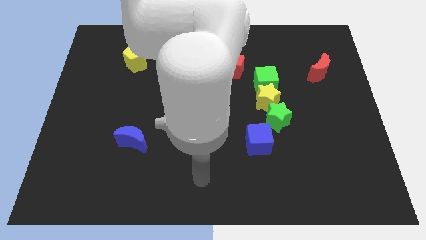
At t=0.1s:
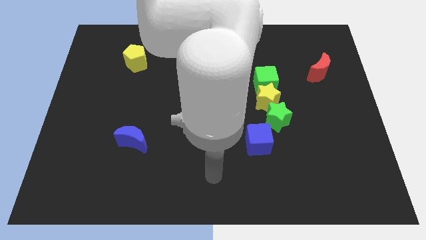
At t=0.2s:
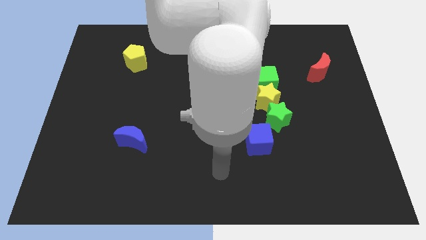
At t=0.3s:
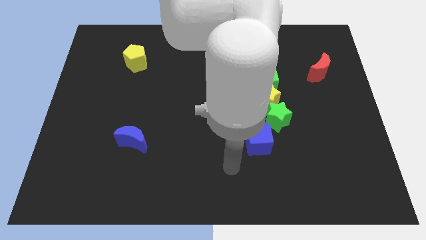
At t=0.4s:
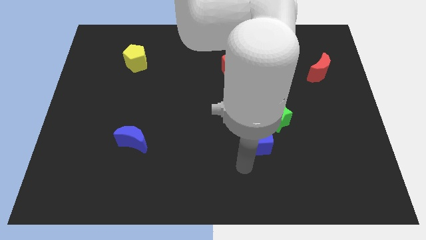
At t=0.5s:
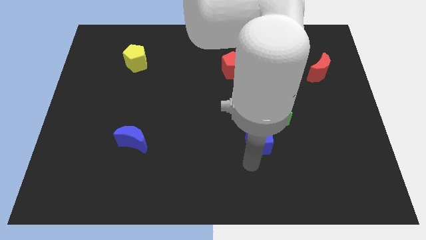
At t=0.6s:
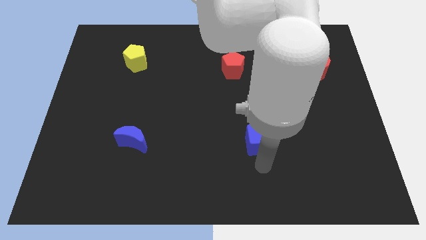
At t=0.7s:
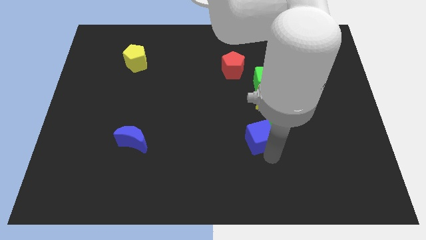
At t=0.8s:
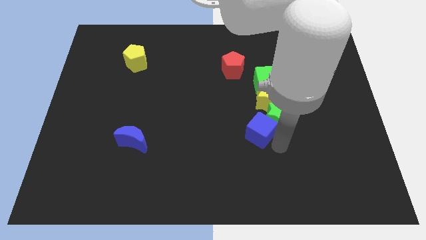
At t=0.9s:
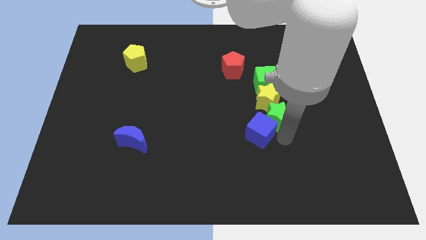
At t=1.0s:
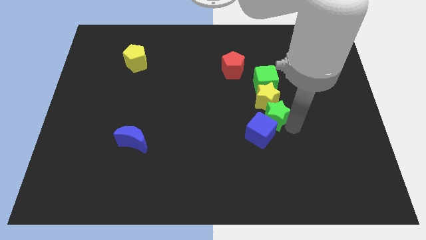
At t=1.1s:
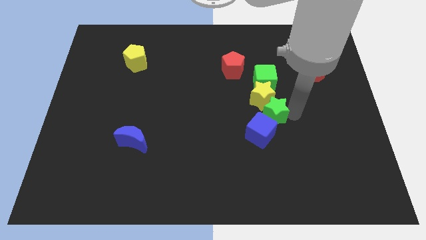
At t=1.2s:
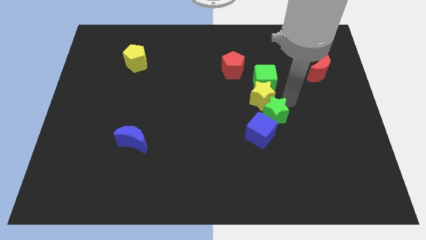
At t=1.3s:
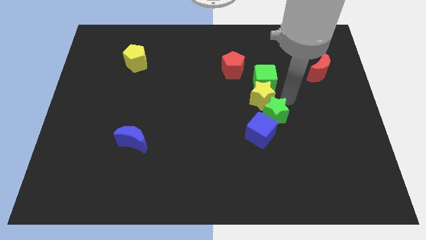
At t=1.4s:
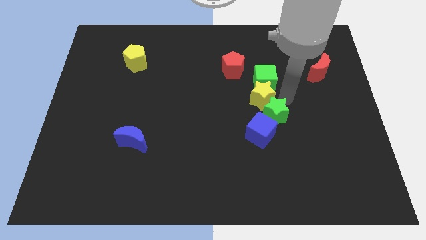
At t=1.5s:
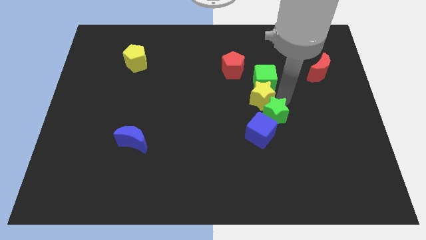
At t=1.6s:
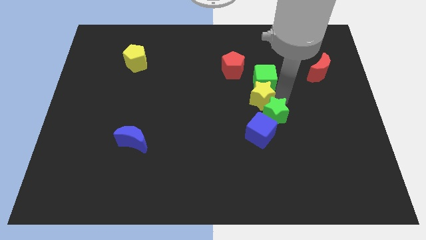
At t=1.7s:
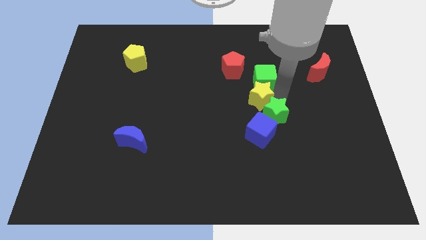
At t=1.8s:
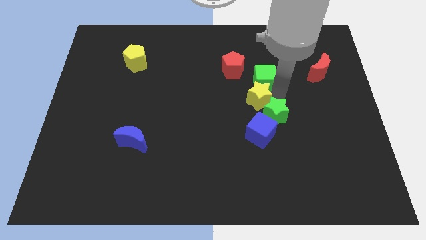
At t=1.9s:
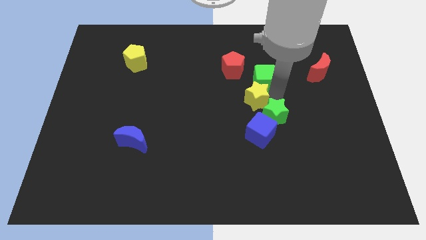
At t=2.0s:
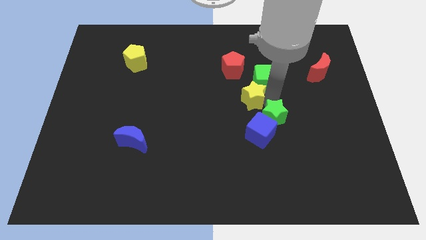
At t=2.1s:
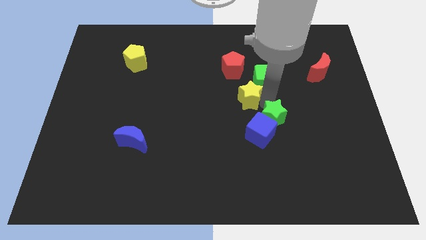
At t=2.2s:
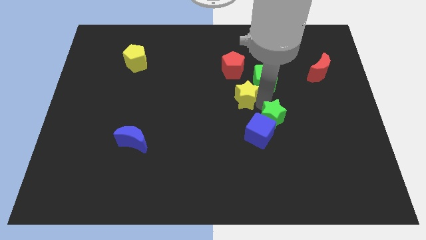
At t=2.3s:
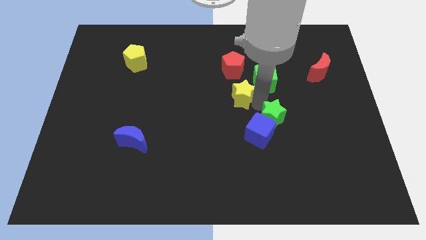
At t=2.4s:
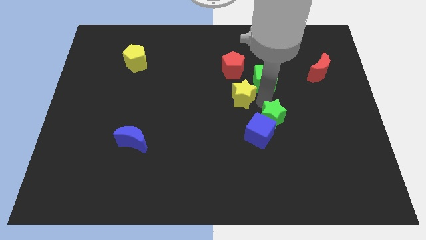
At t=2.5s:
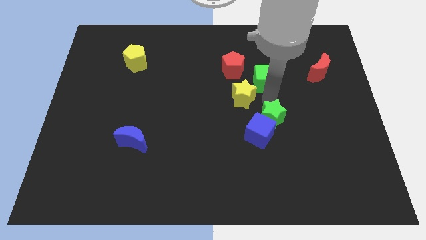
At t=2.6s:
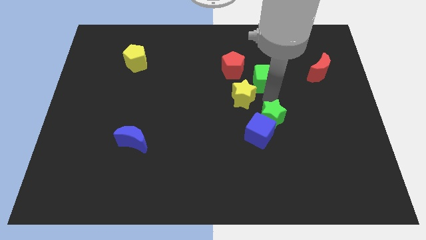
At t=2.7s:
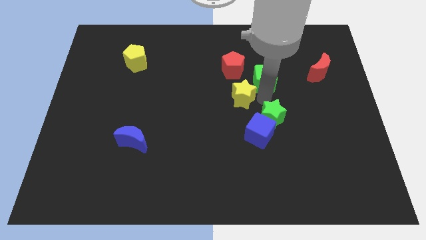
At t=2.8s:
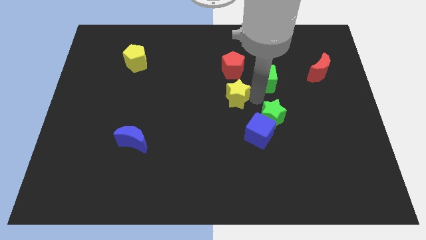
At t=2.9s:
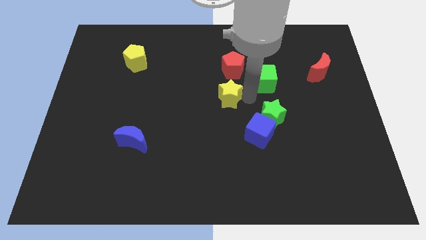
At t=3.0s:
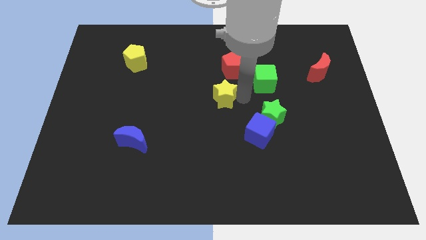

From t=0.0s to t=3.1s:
move the yellow star away from the green cube and green star

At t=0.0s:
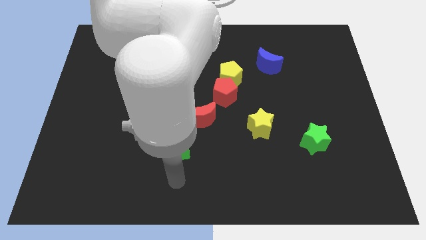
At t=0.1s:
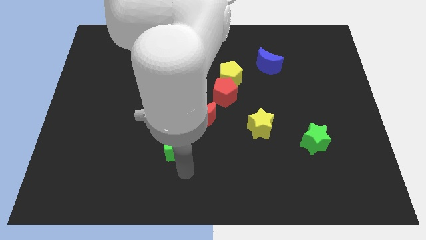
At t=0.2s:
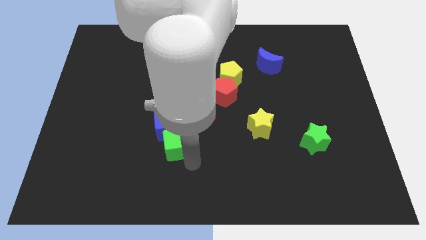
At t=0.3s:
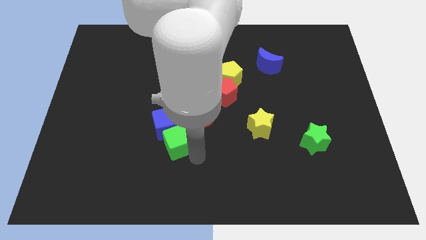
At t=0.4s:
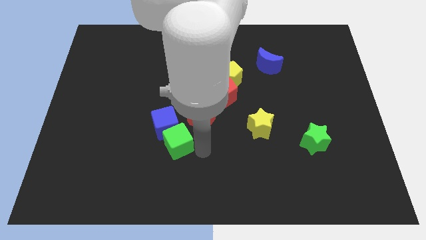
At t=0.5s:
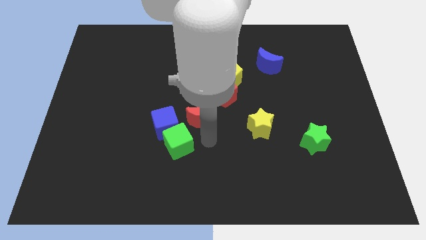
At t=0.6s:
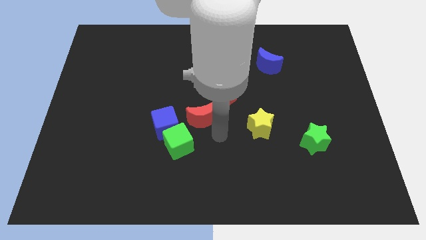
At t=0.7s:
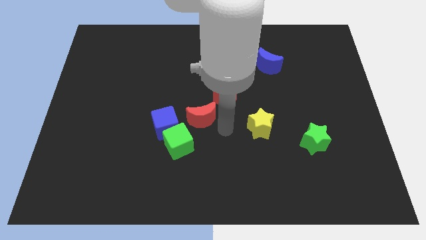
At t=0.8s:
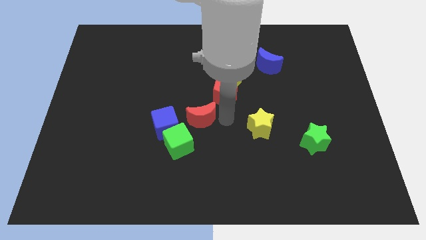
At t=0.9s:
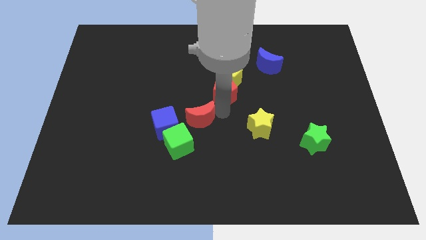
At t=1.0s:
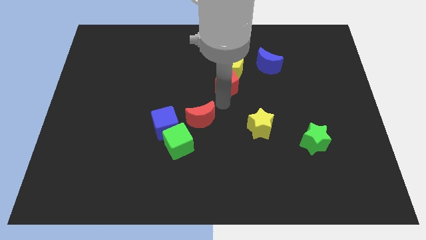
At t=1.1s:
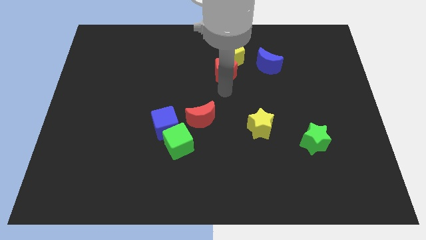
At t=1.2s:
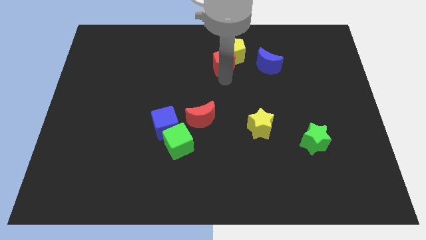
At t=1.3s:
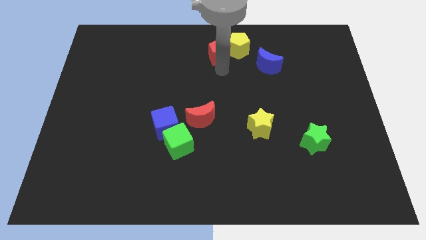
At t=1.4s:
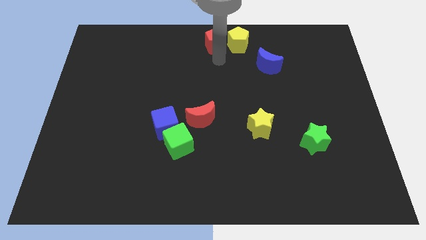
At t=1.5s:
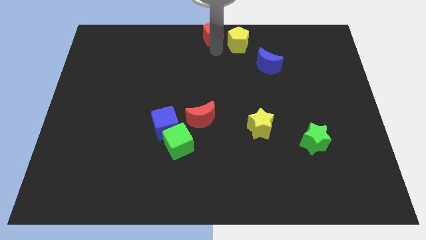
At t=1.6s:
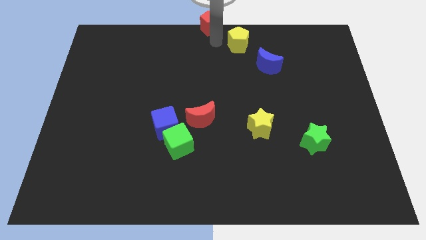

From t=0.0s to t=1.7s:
move the yellow pentagon away from the red pentagon

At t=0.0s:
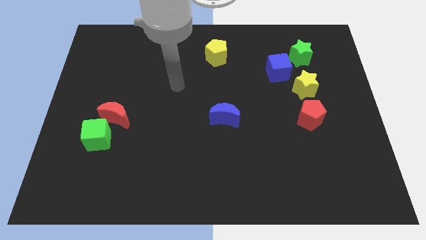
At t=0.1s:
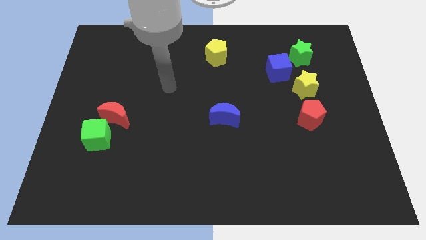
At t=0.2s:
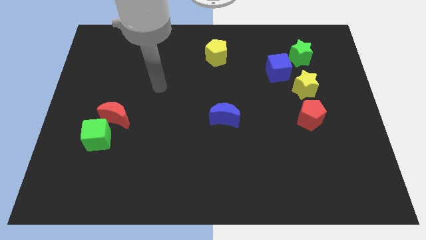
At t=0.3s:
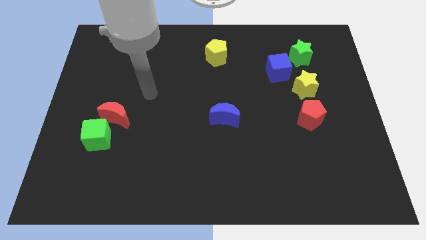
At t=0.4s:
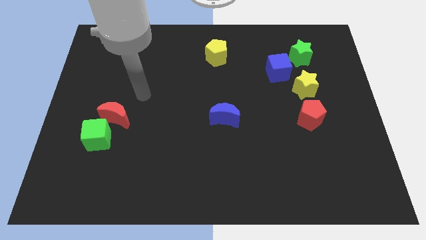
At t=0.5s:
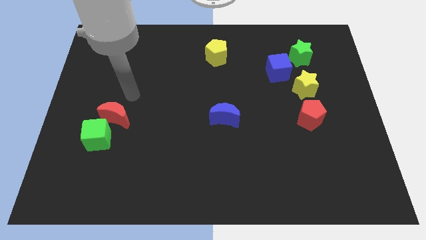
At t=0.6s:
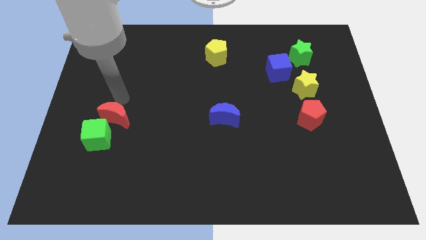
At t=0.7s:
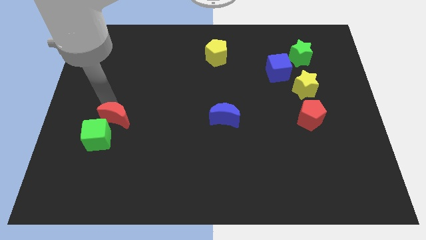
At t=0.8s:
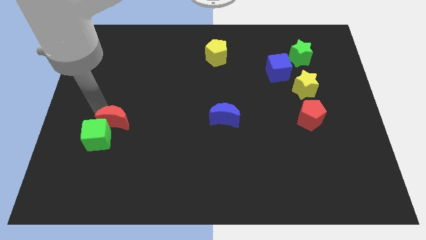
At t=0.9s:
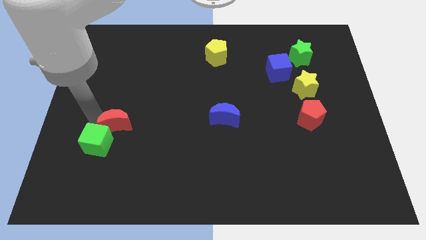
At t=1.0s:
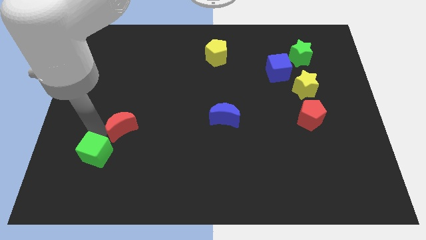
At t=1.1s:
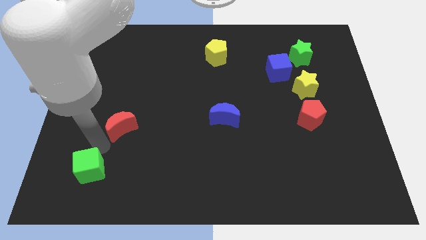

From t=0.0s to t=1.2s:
pull the red moon apart from the green cube

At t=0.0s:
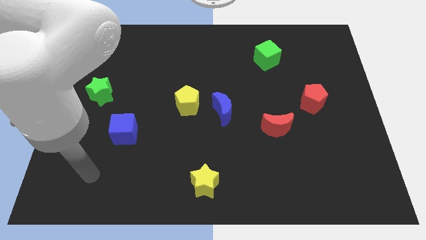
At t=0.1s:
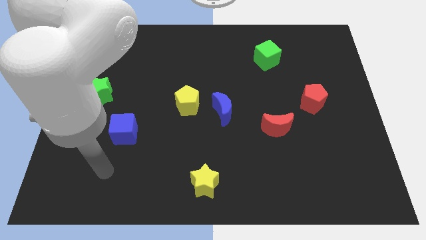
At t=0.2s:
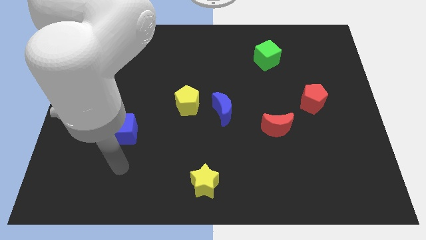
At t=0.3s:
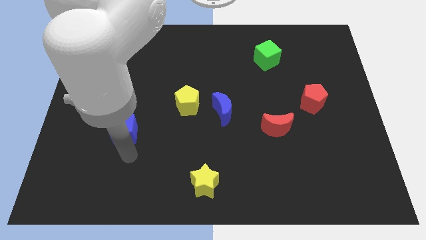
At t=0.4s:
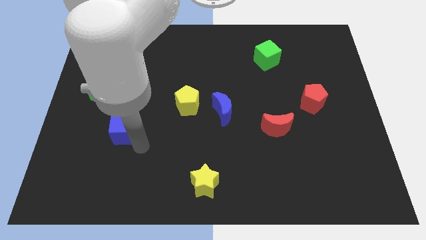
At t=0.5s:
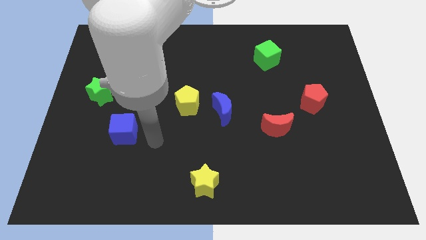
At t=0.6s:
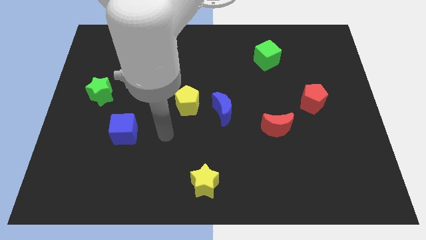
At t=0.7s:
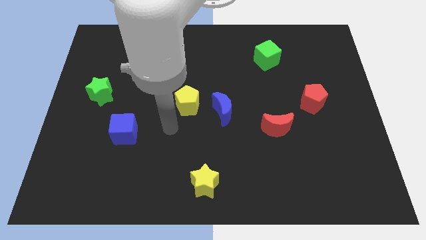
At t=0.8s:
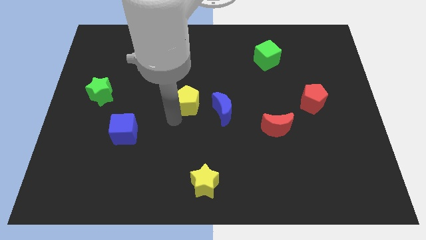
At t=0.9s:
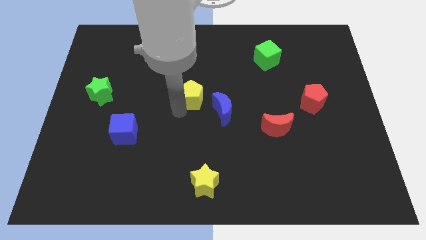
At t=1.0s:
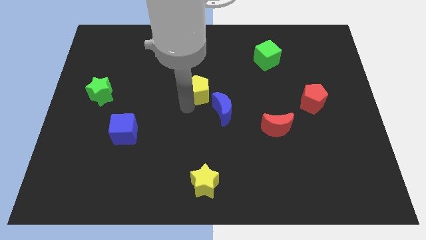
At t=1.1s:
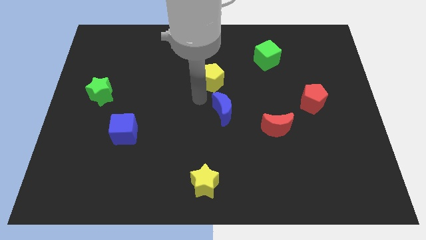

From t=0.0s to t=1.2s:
pull the blue moon apart from the yellow pentagon

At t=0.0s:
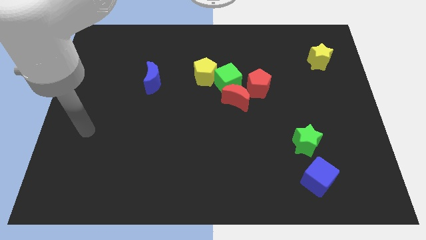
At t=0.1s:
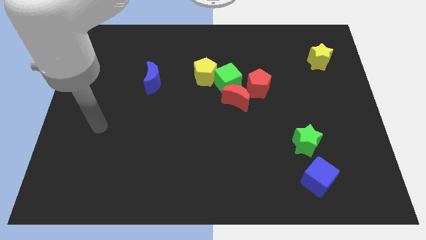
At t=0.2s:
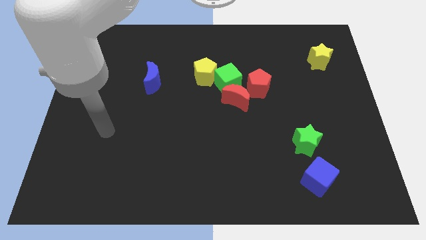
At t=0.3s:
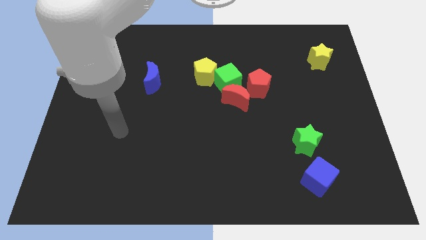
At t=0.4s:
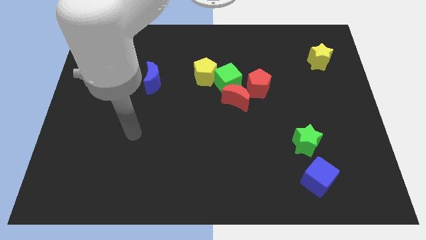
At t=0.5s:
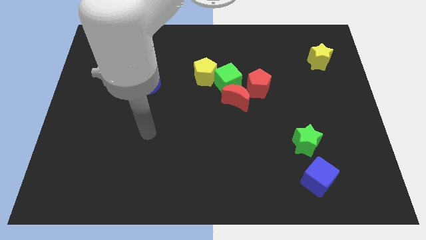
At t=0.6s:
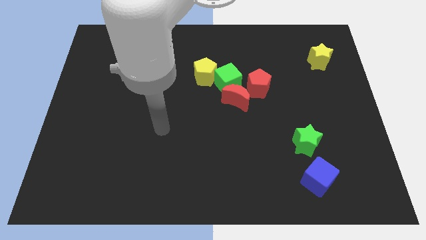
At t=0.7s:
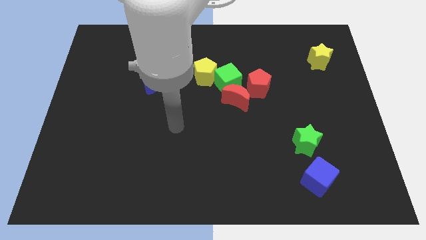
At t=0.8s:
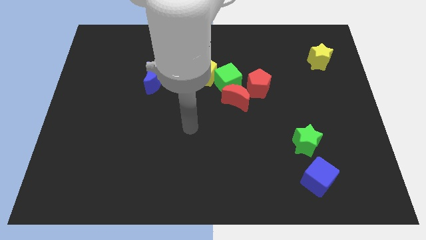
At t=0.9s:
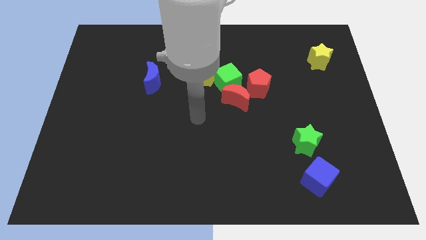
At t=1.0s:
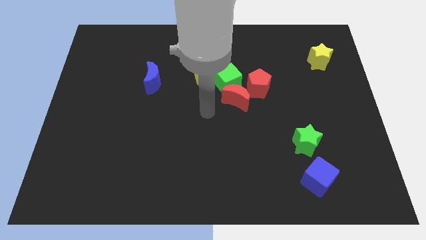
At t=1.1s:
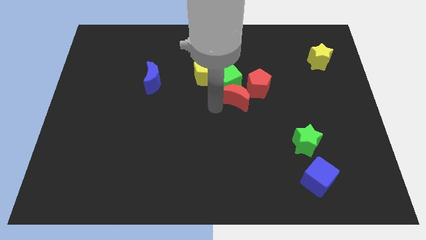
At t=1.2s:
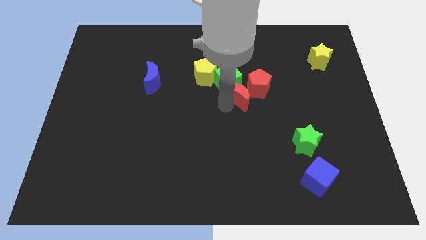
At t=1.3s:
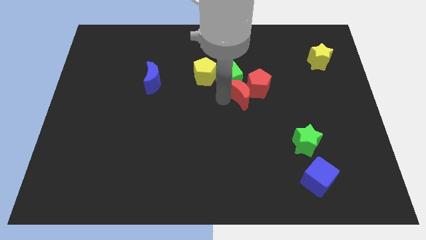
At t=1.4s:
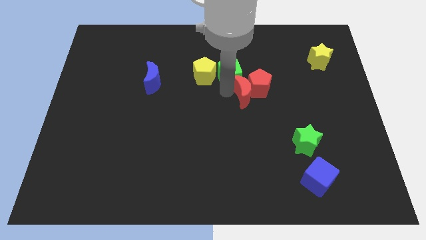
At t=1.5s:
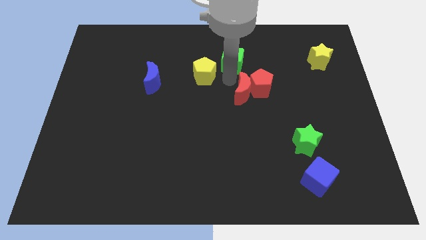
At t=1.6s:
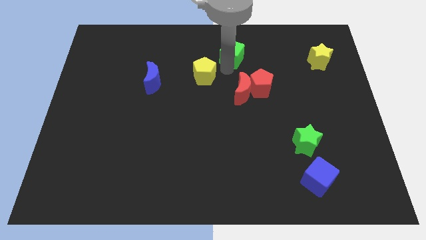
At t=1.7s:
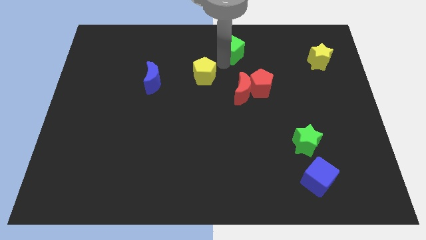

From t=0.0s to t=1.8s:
move the yellow pentagon away from the green cube

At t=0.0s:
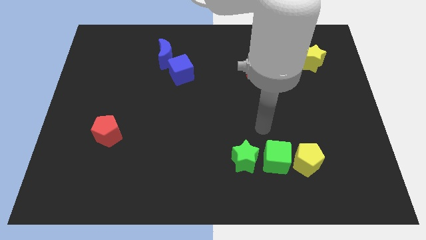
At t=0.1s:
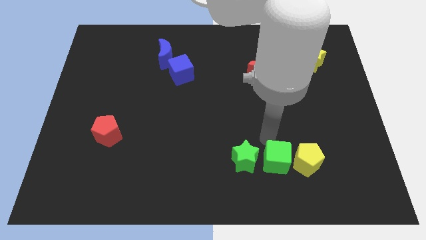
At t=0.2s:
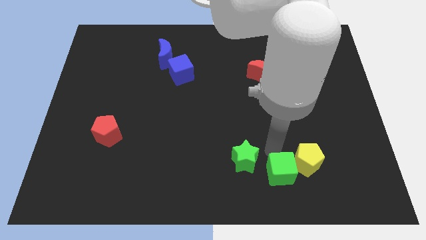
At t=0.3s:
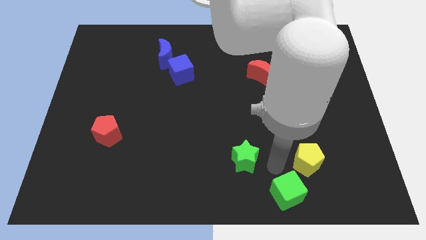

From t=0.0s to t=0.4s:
separate the green star from the green cube
